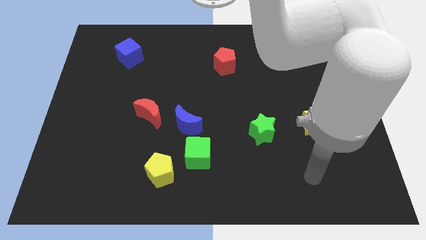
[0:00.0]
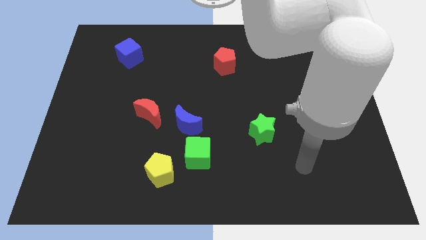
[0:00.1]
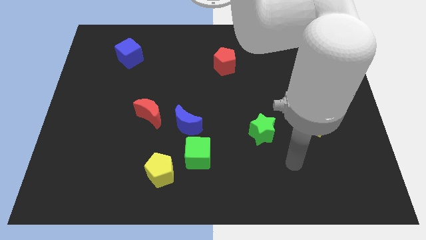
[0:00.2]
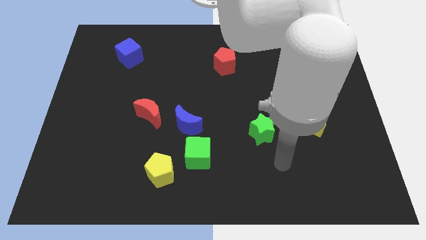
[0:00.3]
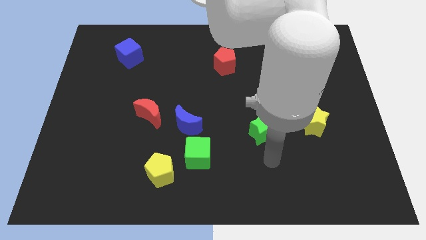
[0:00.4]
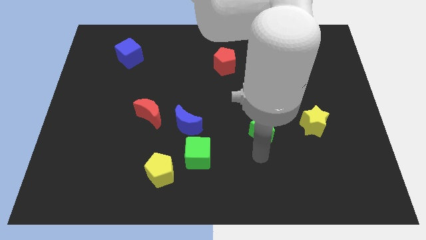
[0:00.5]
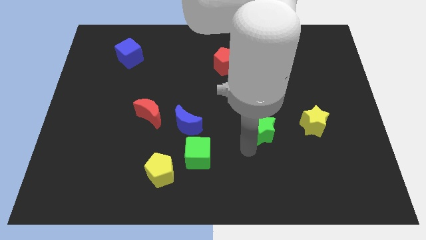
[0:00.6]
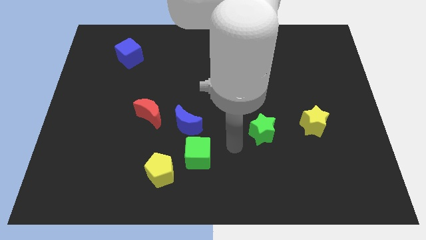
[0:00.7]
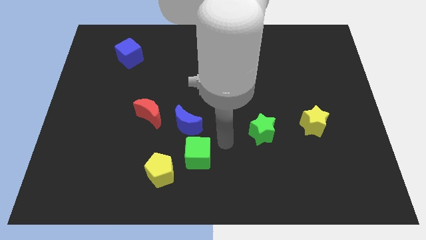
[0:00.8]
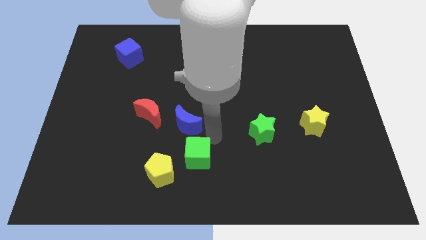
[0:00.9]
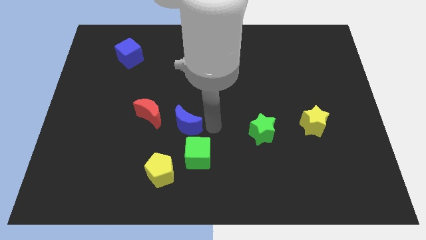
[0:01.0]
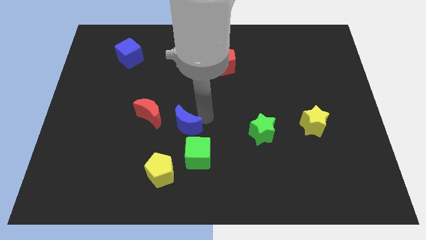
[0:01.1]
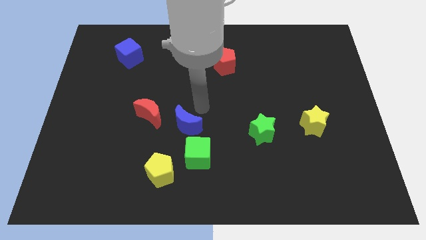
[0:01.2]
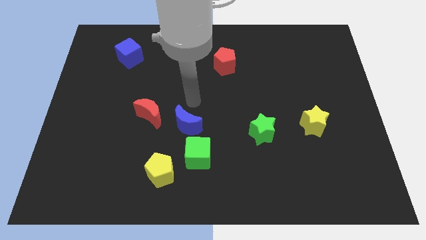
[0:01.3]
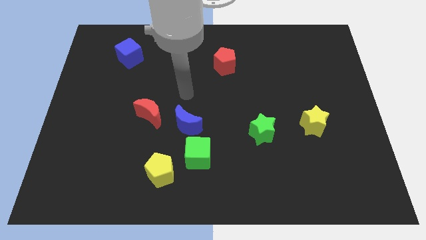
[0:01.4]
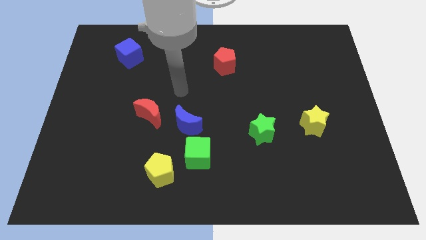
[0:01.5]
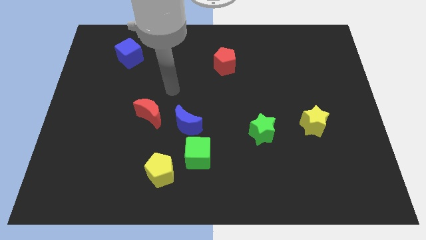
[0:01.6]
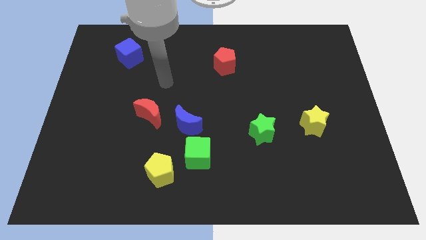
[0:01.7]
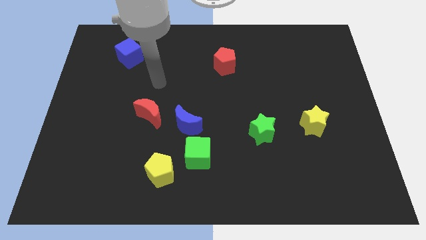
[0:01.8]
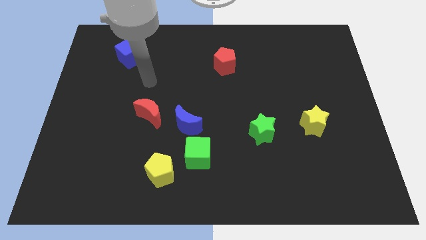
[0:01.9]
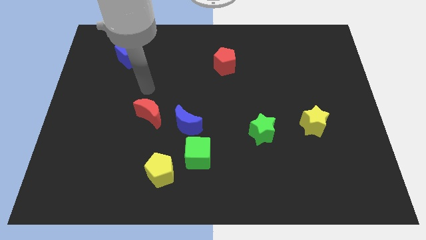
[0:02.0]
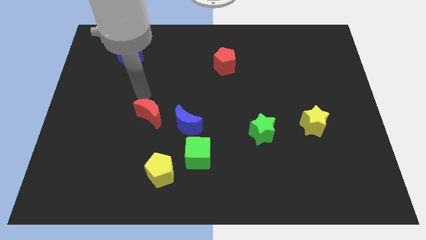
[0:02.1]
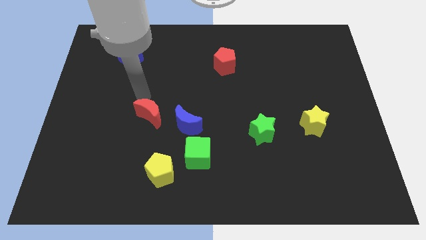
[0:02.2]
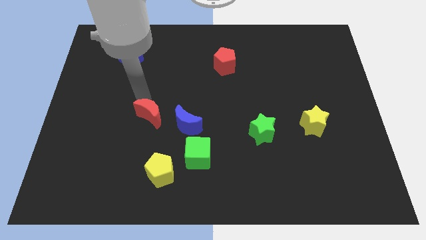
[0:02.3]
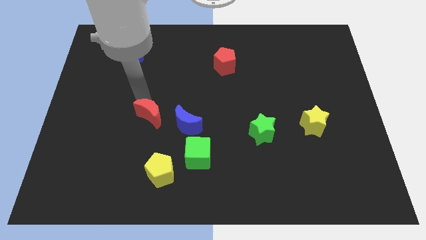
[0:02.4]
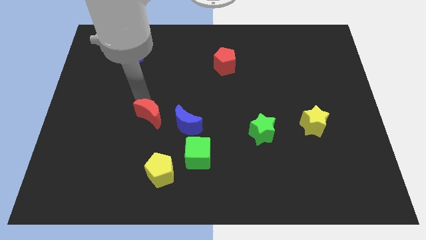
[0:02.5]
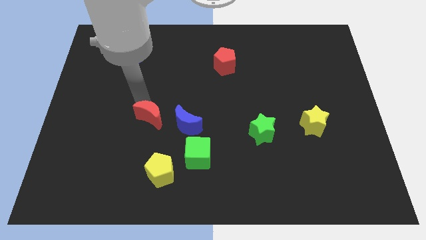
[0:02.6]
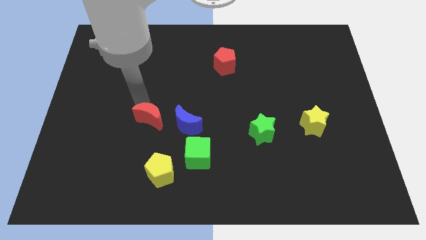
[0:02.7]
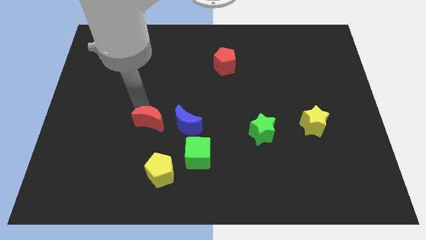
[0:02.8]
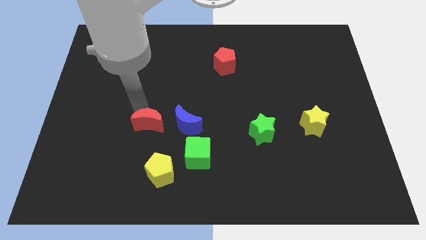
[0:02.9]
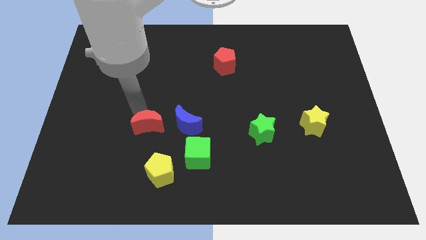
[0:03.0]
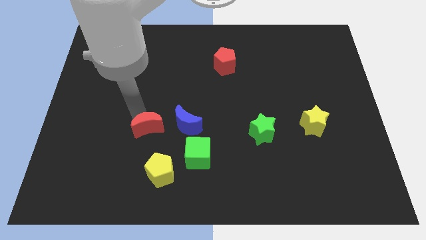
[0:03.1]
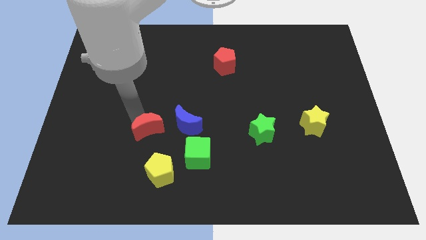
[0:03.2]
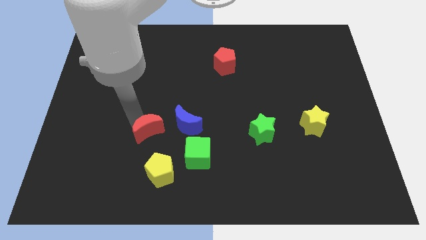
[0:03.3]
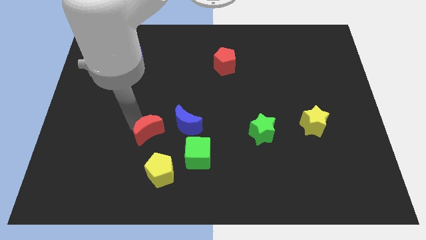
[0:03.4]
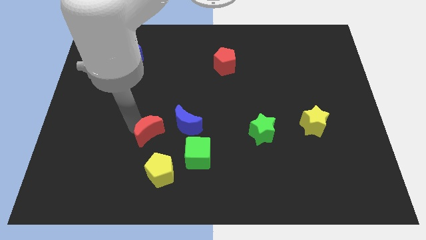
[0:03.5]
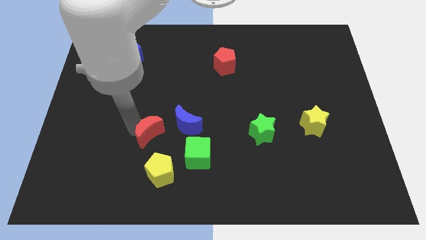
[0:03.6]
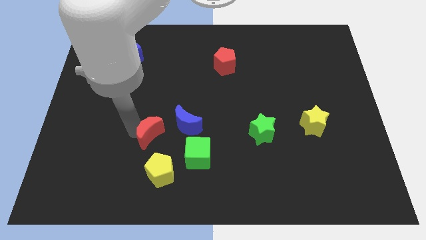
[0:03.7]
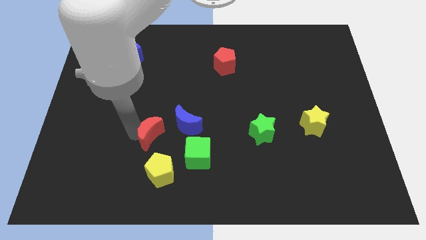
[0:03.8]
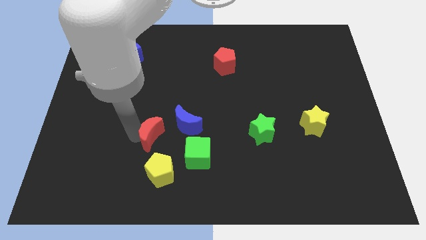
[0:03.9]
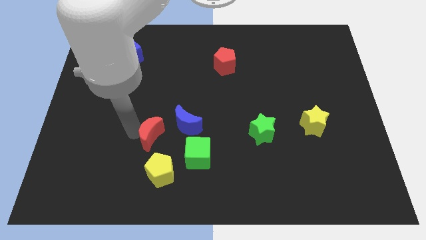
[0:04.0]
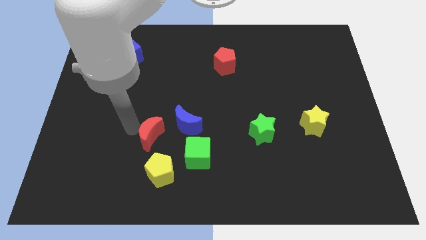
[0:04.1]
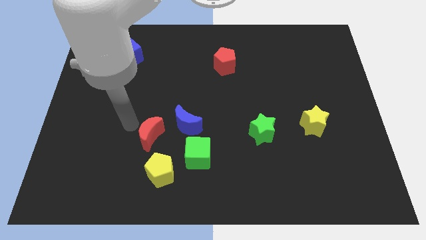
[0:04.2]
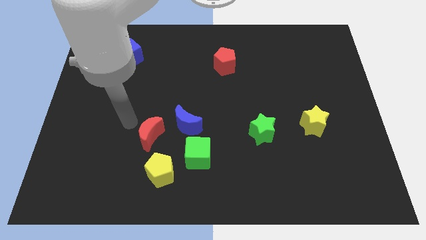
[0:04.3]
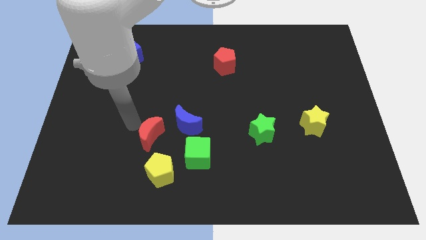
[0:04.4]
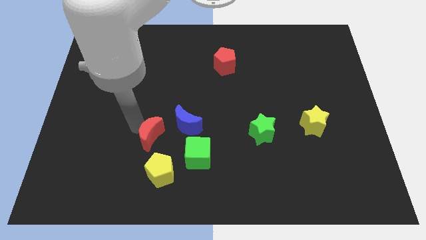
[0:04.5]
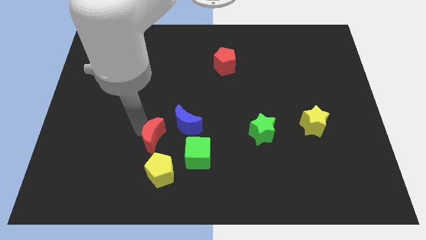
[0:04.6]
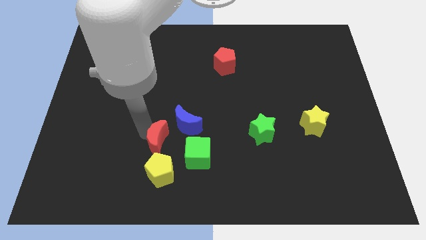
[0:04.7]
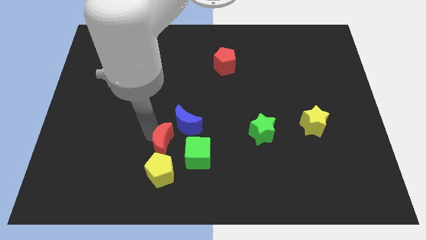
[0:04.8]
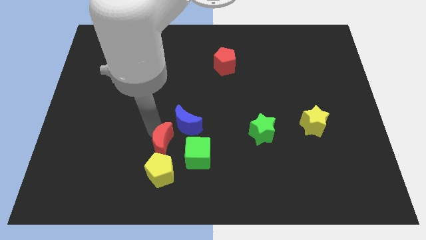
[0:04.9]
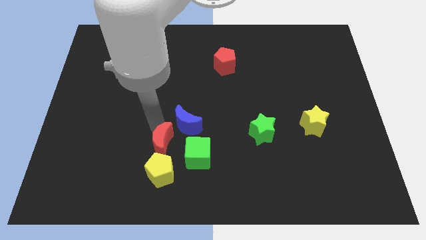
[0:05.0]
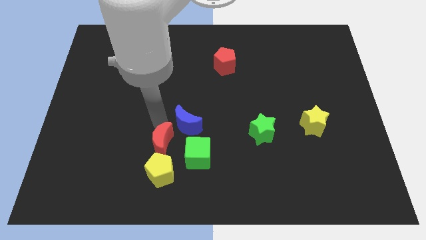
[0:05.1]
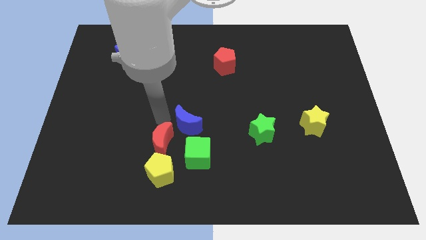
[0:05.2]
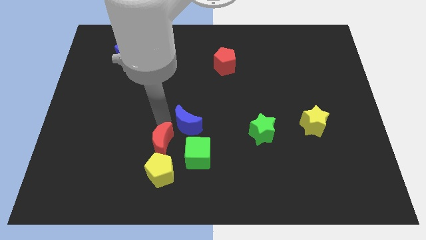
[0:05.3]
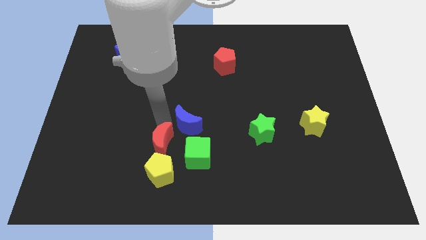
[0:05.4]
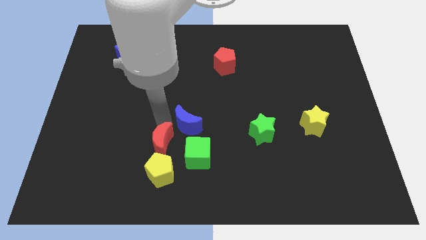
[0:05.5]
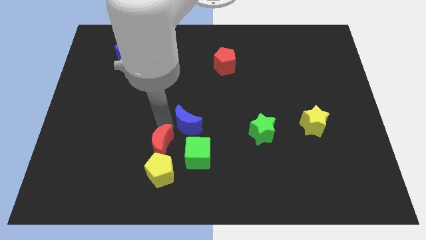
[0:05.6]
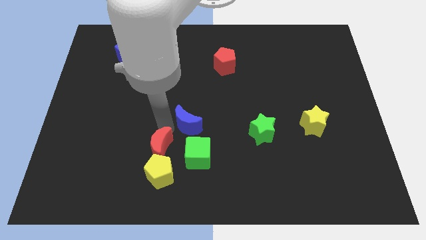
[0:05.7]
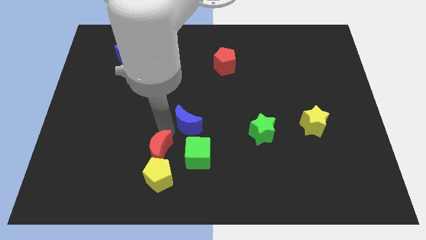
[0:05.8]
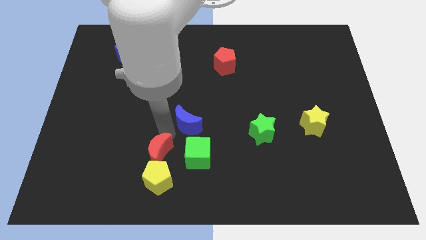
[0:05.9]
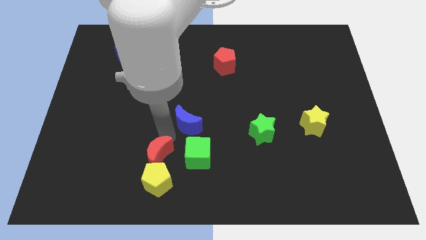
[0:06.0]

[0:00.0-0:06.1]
move the red moon next to the yellow pentagon

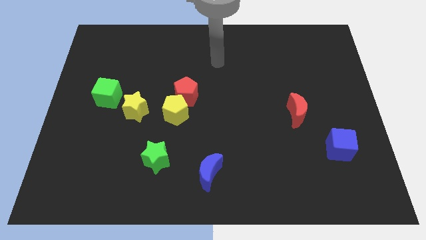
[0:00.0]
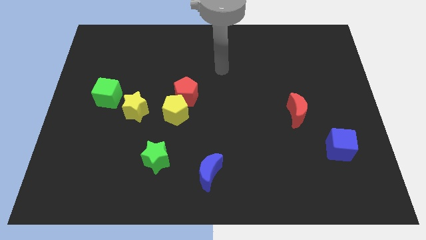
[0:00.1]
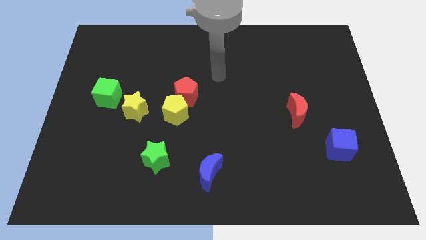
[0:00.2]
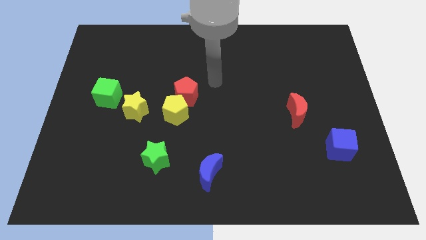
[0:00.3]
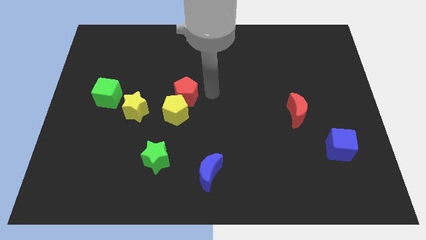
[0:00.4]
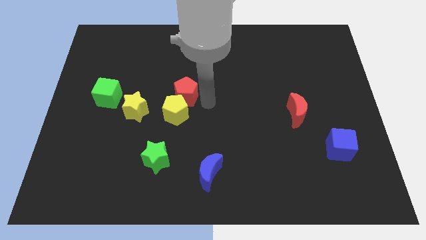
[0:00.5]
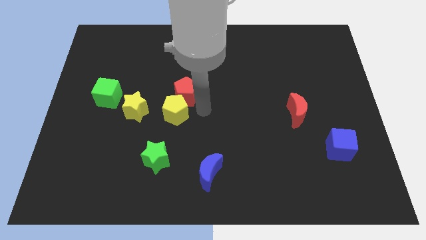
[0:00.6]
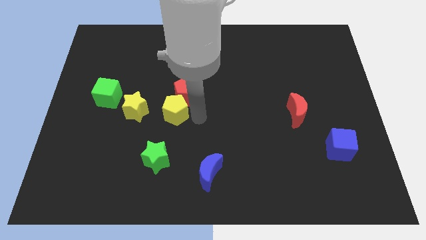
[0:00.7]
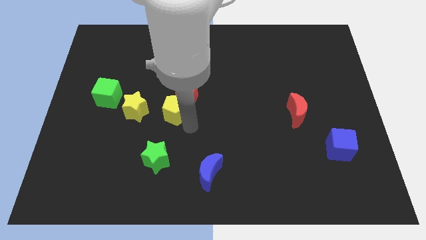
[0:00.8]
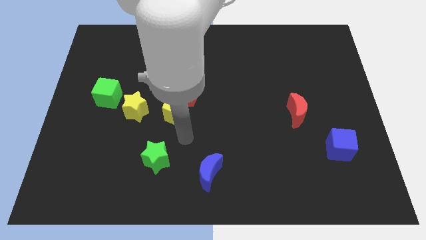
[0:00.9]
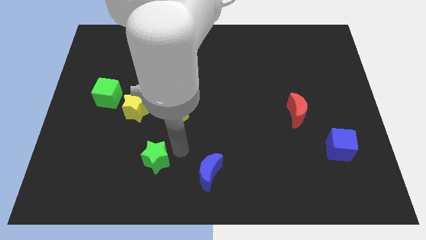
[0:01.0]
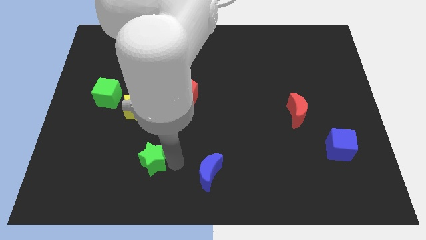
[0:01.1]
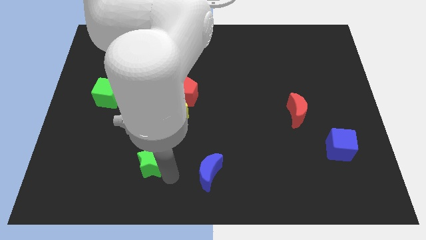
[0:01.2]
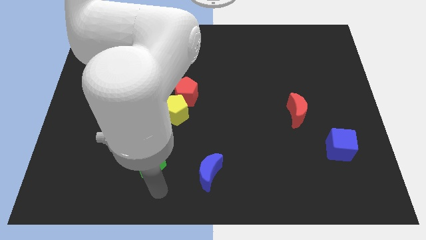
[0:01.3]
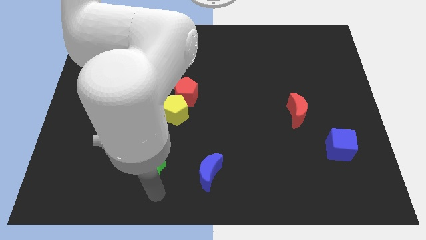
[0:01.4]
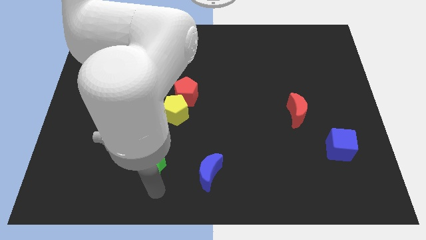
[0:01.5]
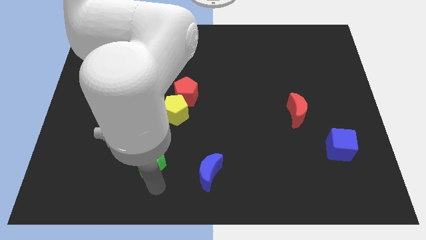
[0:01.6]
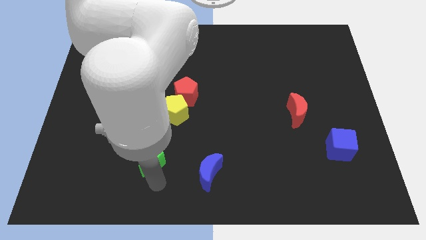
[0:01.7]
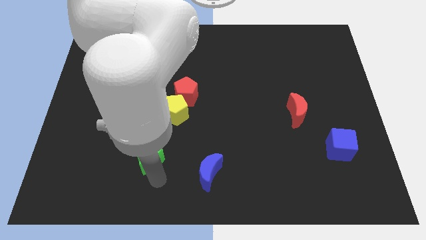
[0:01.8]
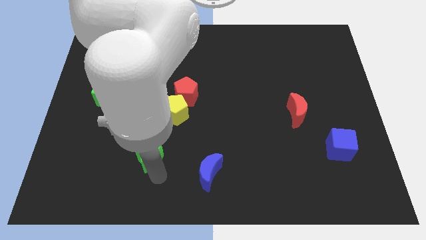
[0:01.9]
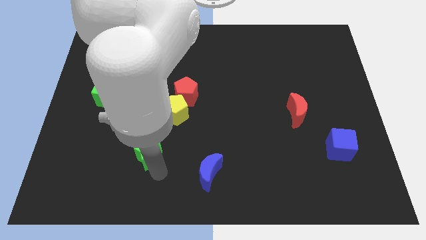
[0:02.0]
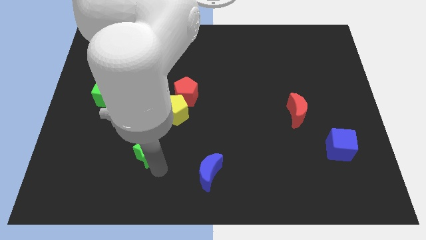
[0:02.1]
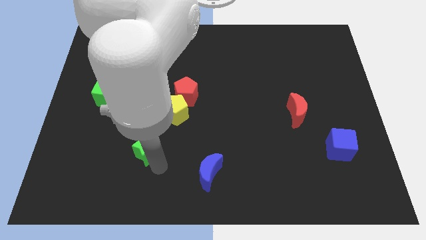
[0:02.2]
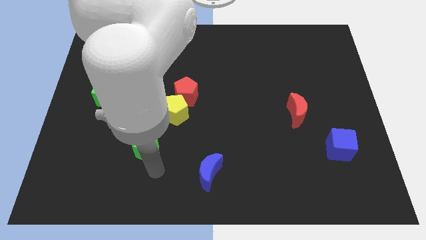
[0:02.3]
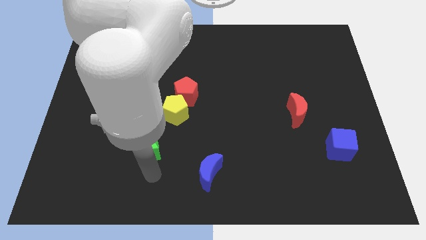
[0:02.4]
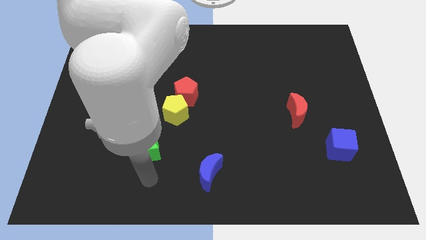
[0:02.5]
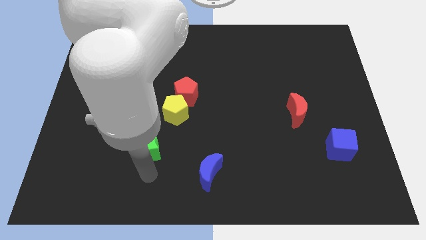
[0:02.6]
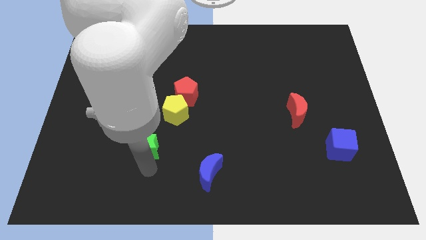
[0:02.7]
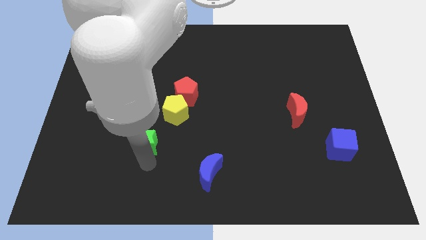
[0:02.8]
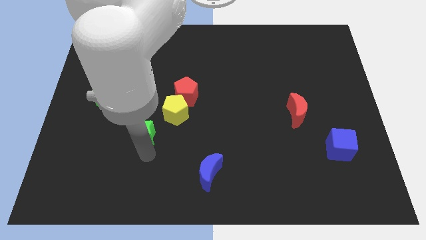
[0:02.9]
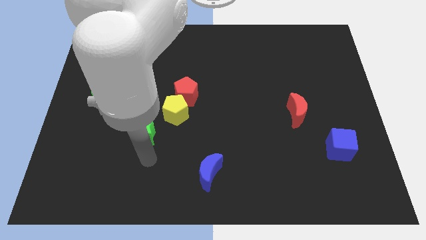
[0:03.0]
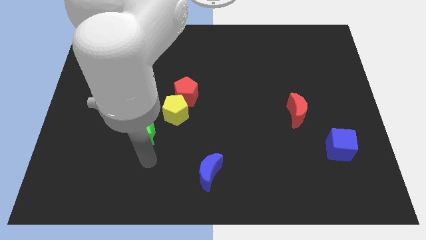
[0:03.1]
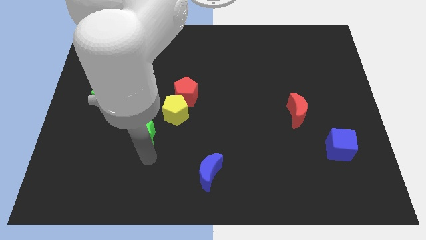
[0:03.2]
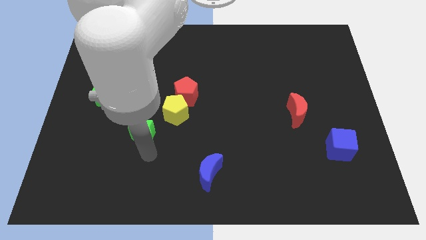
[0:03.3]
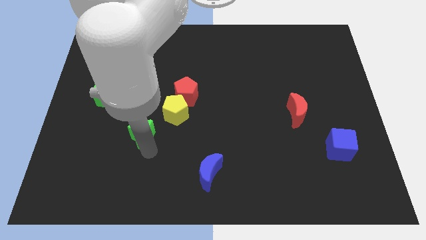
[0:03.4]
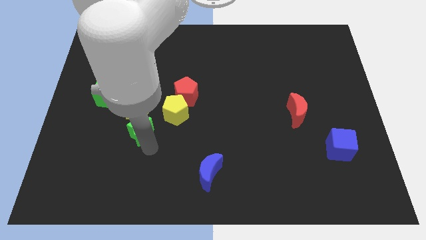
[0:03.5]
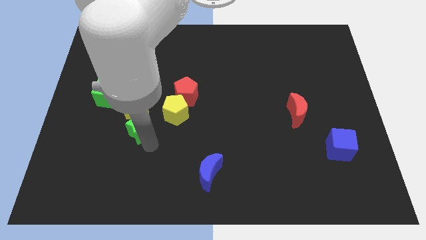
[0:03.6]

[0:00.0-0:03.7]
push the green star towards the yellow star
